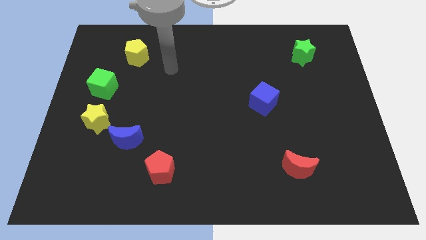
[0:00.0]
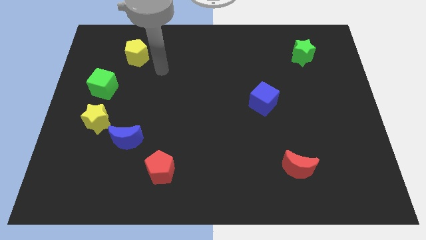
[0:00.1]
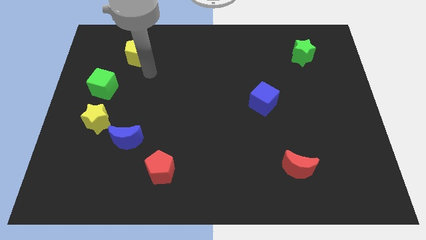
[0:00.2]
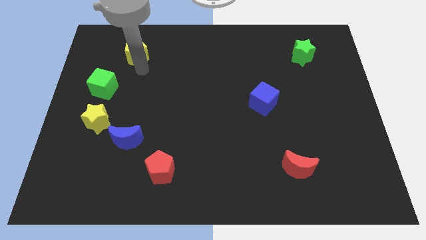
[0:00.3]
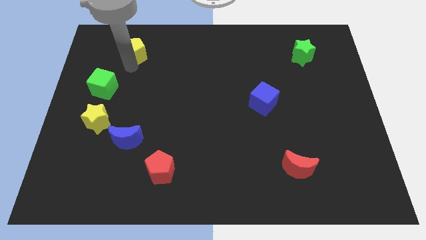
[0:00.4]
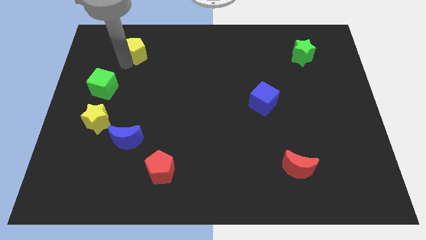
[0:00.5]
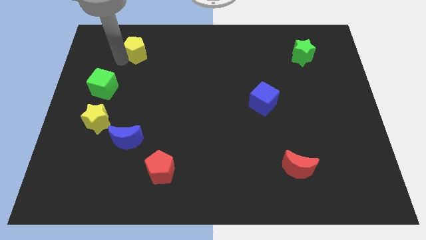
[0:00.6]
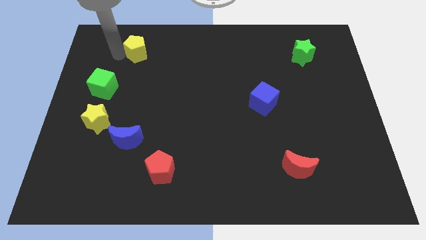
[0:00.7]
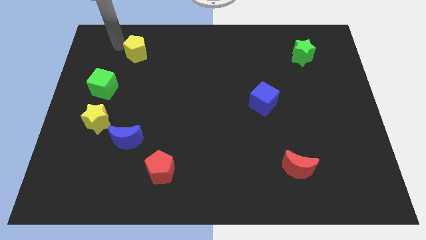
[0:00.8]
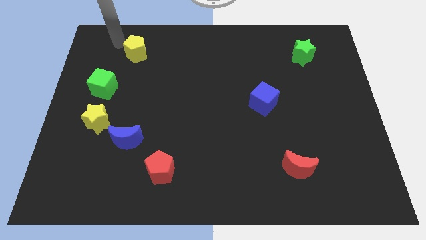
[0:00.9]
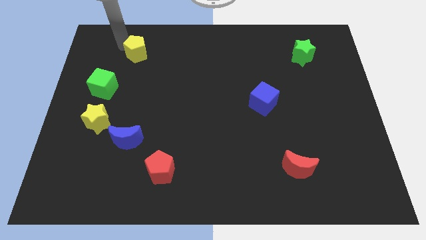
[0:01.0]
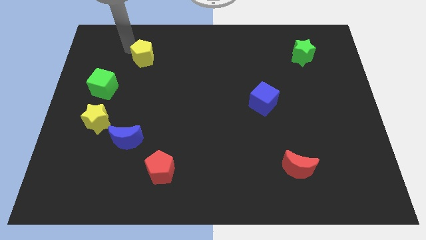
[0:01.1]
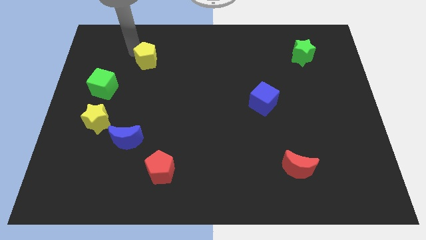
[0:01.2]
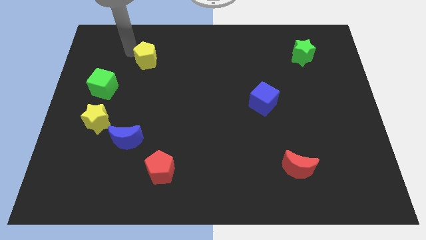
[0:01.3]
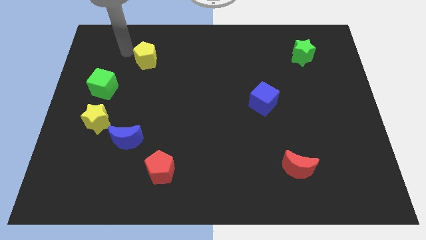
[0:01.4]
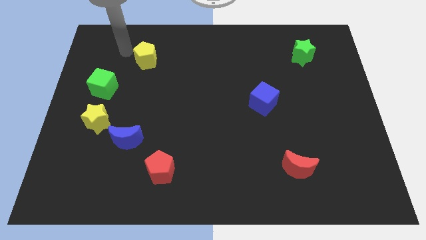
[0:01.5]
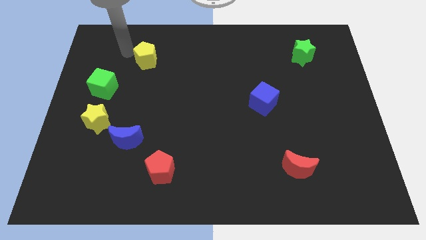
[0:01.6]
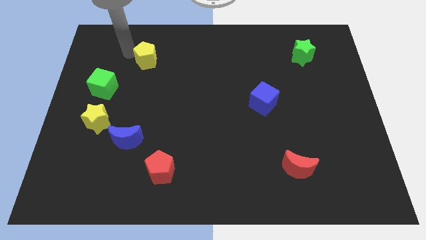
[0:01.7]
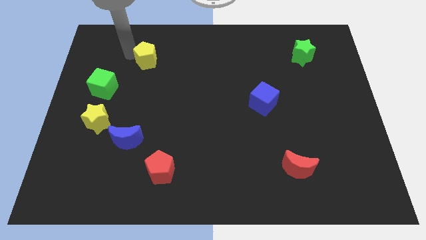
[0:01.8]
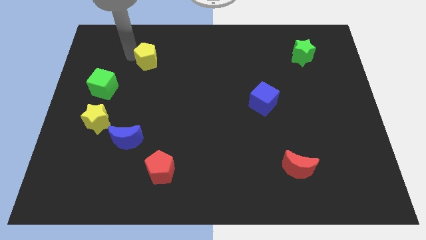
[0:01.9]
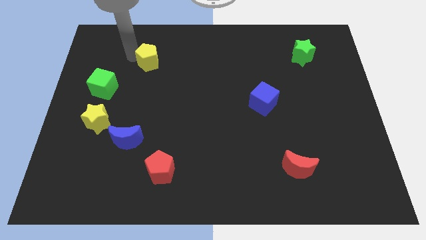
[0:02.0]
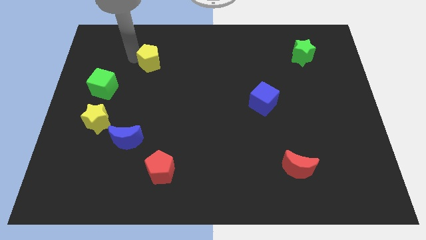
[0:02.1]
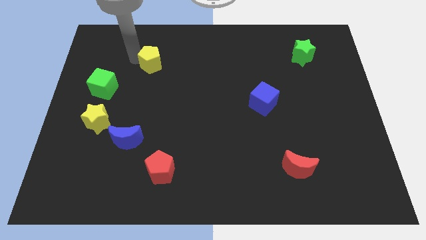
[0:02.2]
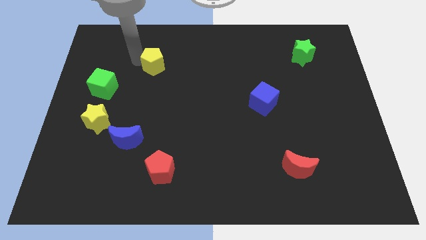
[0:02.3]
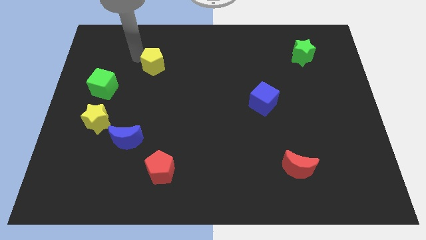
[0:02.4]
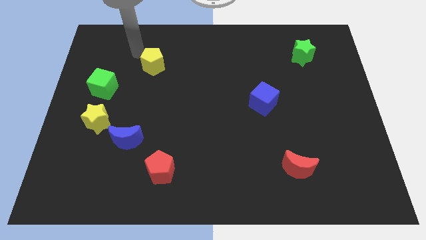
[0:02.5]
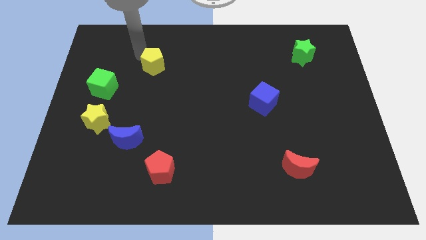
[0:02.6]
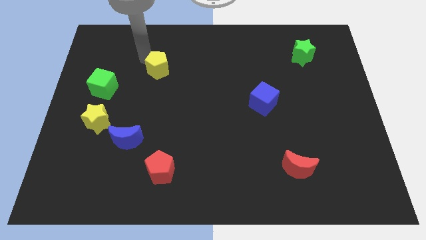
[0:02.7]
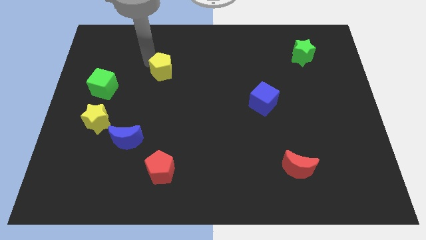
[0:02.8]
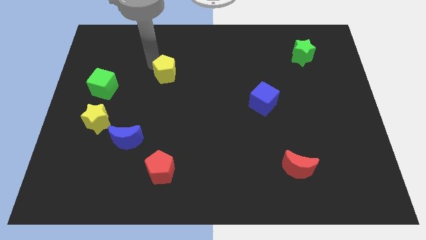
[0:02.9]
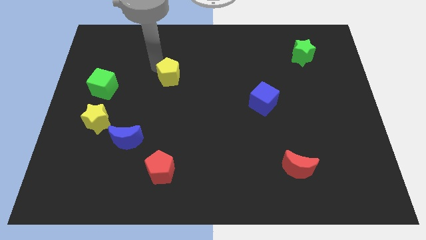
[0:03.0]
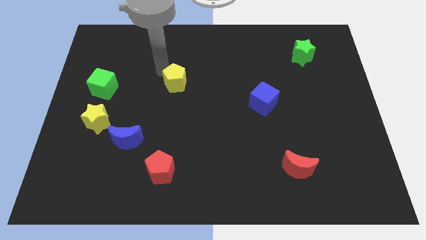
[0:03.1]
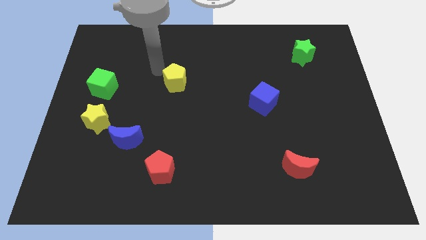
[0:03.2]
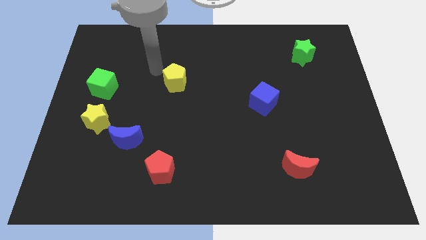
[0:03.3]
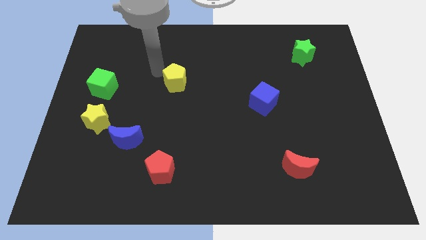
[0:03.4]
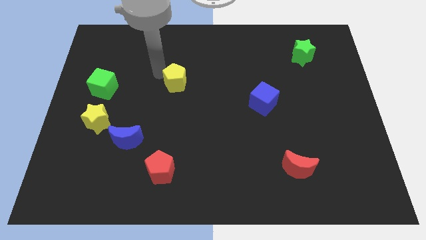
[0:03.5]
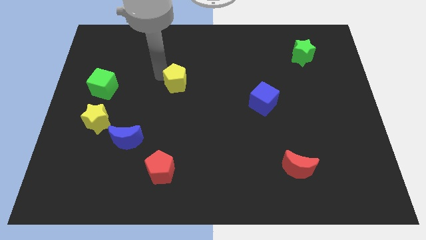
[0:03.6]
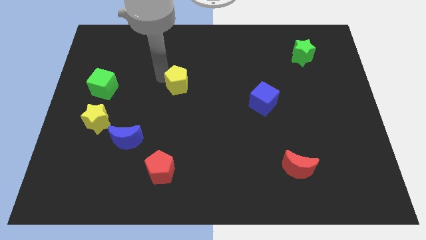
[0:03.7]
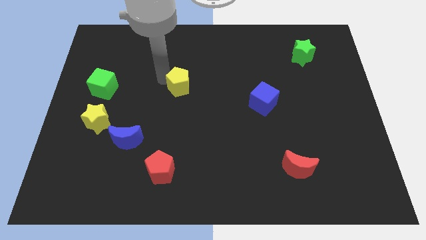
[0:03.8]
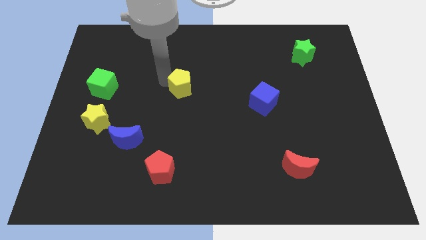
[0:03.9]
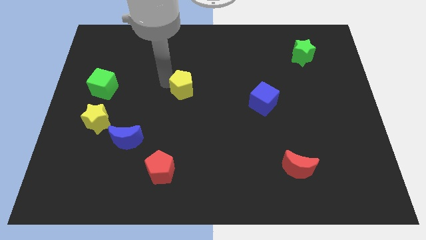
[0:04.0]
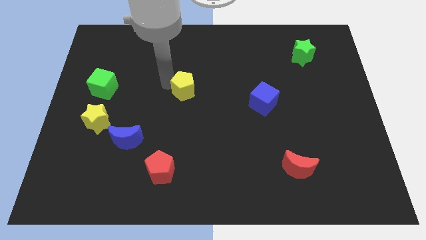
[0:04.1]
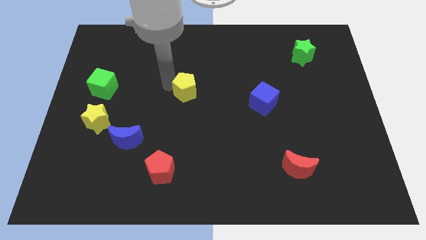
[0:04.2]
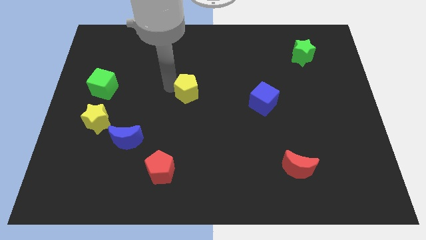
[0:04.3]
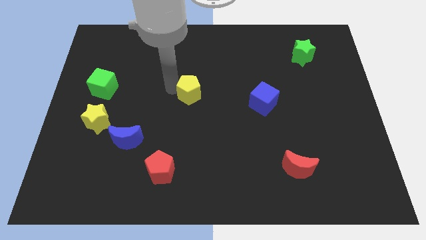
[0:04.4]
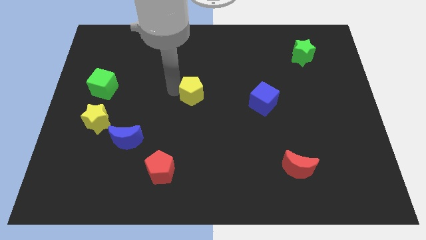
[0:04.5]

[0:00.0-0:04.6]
slide the yellow pentagon diagonally downwards and to the right

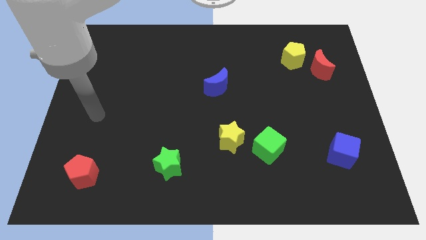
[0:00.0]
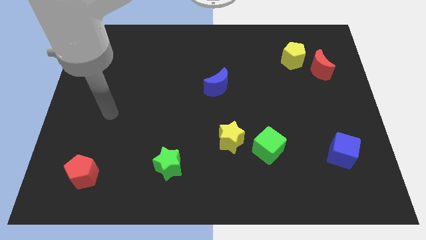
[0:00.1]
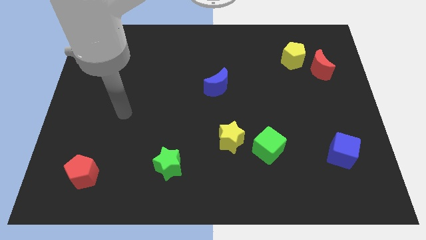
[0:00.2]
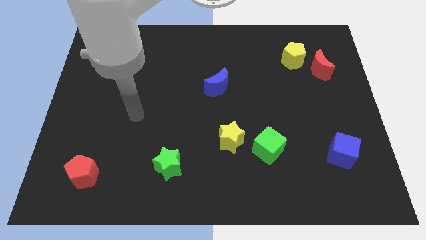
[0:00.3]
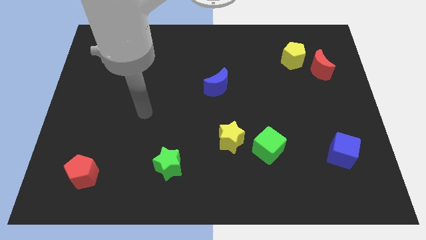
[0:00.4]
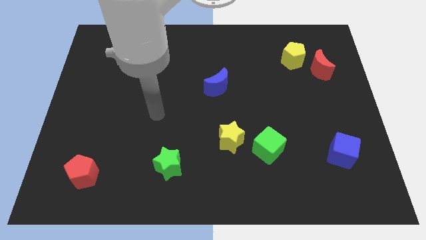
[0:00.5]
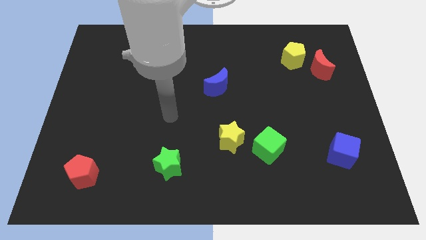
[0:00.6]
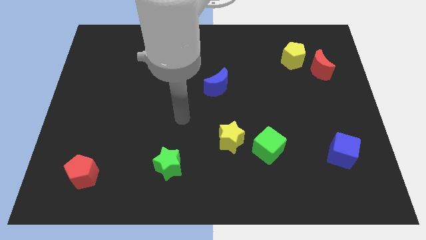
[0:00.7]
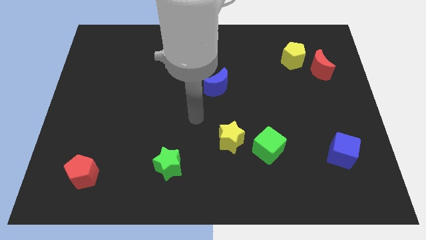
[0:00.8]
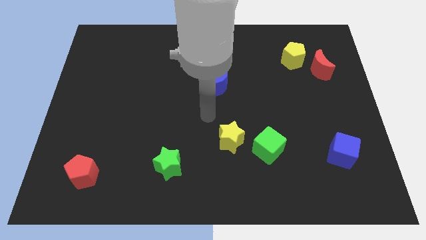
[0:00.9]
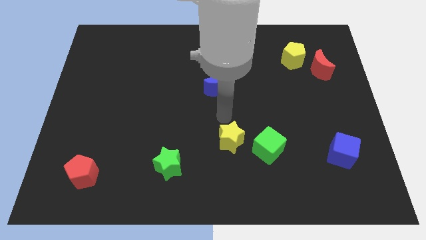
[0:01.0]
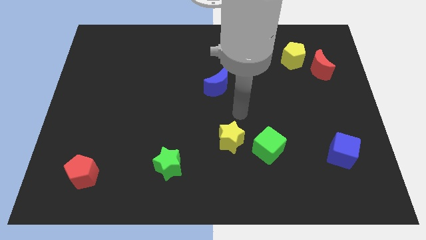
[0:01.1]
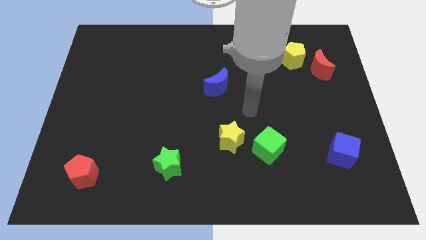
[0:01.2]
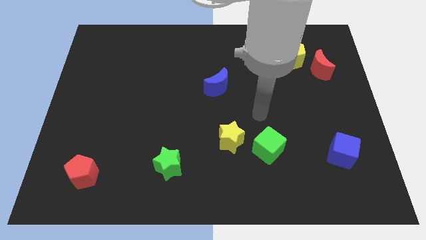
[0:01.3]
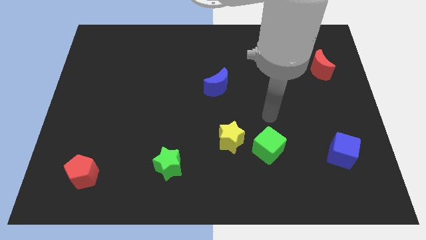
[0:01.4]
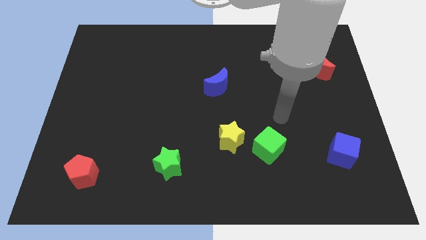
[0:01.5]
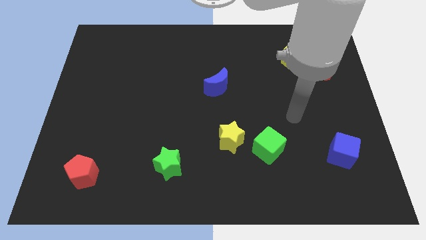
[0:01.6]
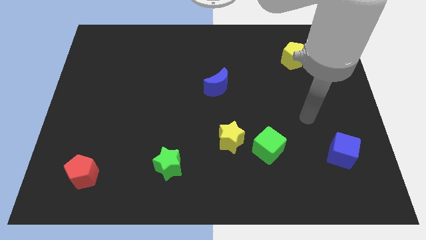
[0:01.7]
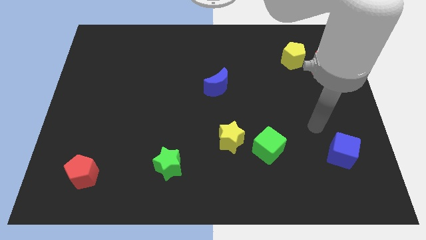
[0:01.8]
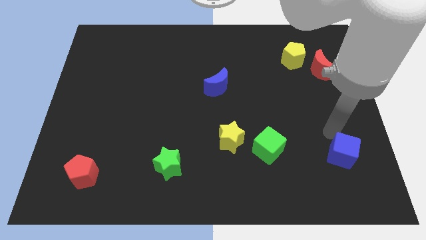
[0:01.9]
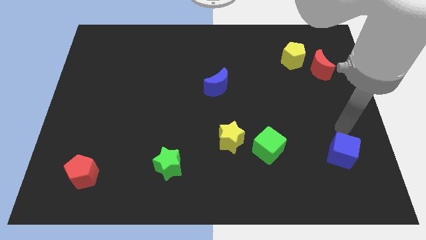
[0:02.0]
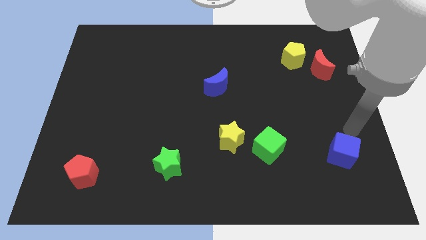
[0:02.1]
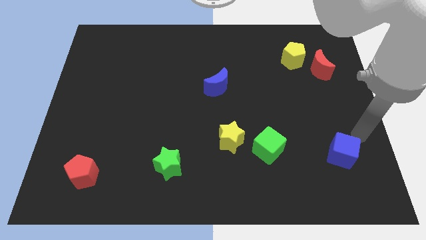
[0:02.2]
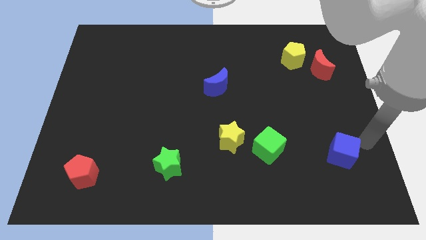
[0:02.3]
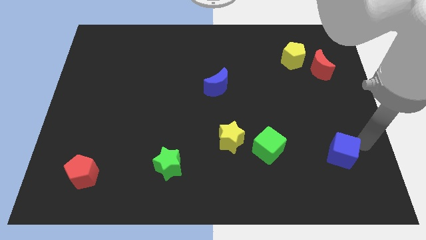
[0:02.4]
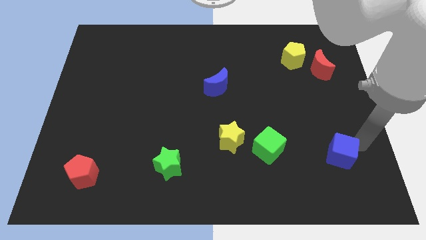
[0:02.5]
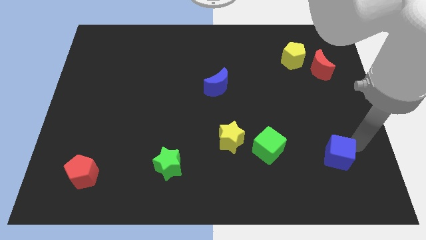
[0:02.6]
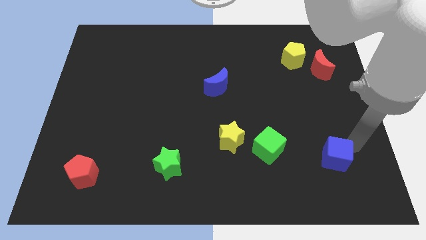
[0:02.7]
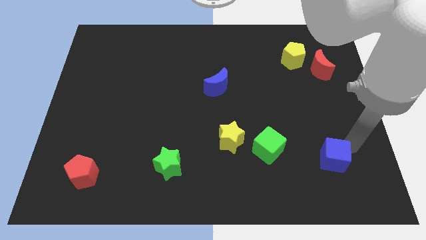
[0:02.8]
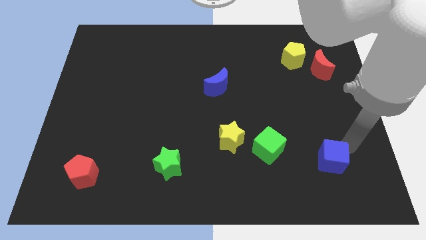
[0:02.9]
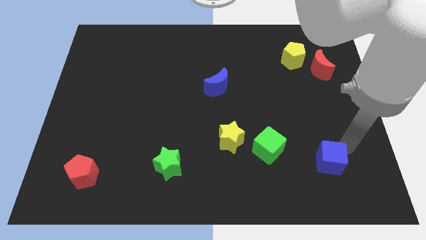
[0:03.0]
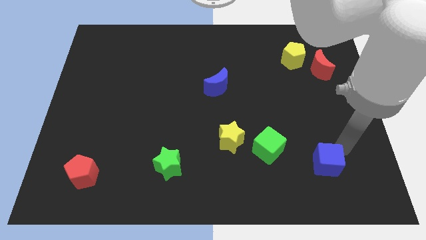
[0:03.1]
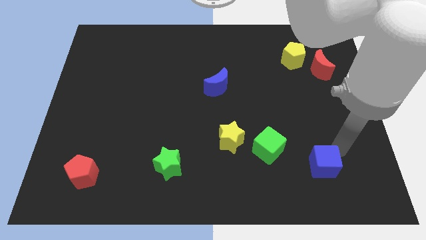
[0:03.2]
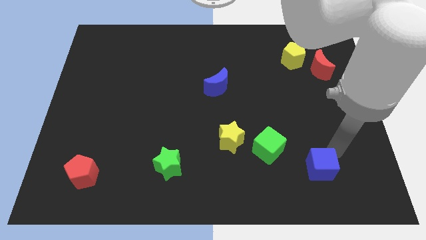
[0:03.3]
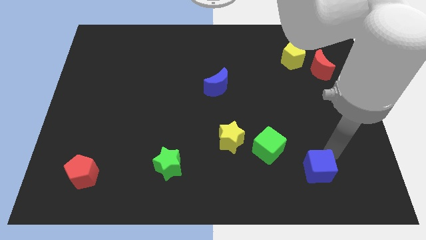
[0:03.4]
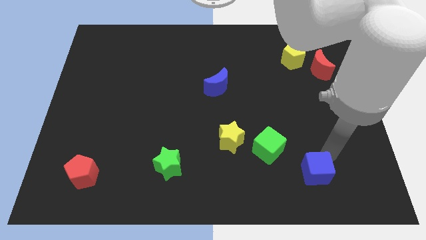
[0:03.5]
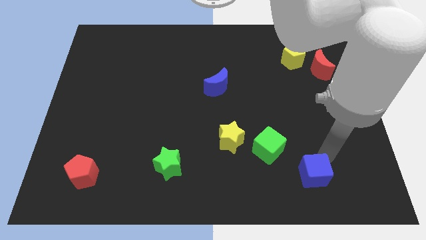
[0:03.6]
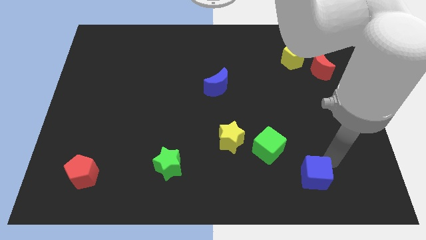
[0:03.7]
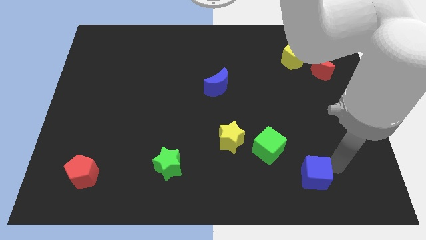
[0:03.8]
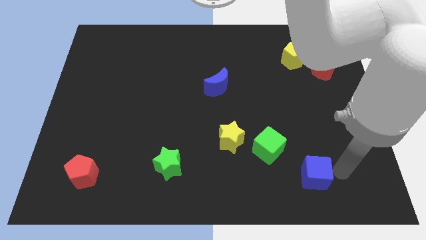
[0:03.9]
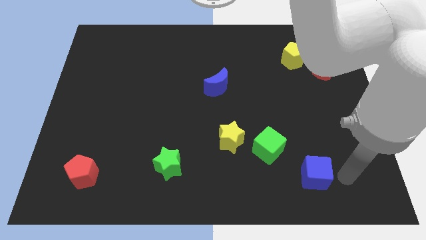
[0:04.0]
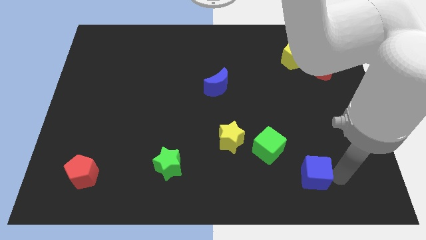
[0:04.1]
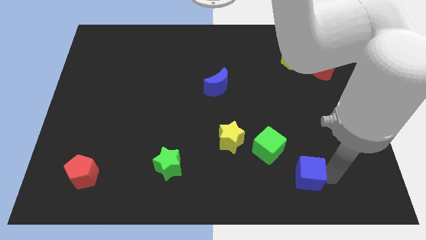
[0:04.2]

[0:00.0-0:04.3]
move the blue cube a little left
